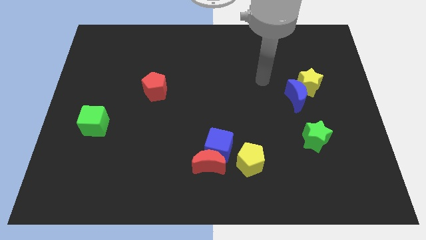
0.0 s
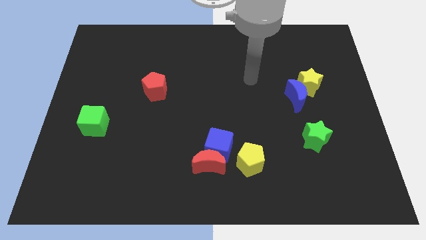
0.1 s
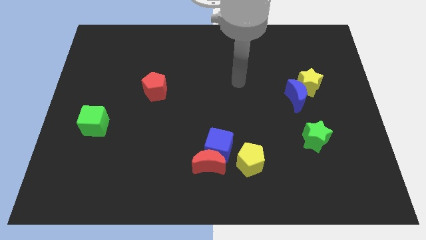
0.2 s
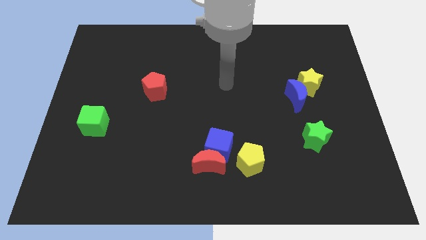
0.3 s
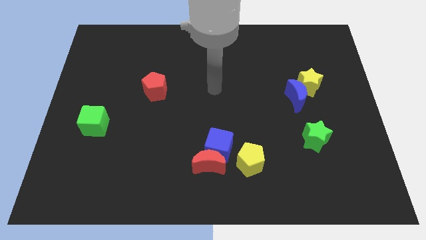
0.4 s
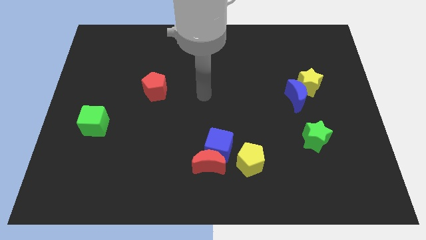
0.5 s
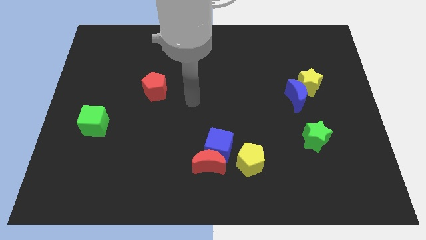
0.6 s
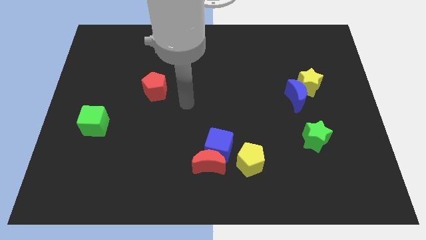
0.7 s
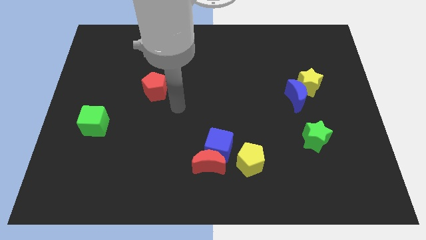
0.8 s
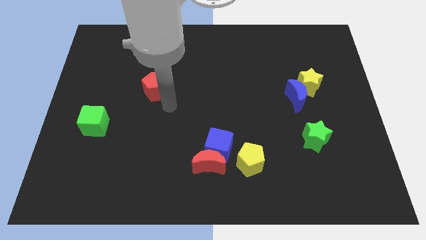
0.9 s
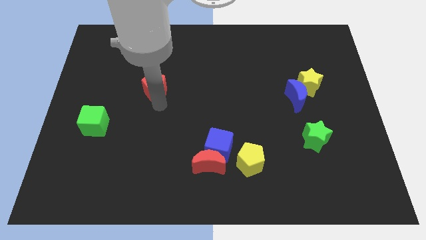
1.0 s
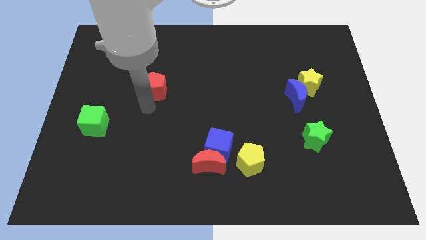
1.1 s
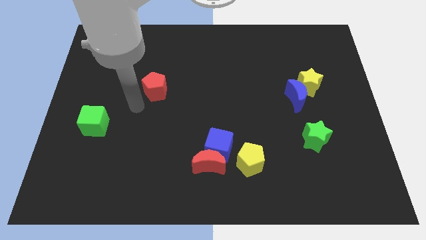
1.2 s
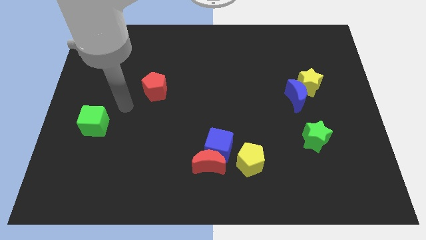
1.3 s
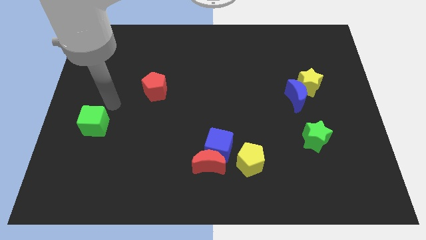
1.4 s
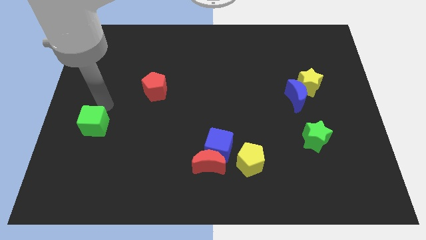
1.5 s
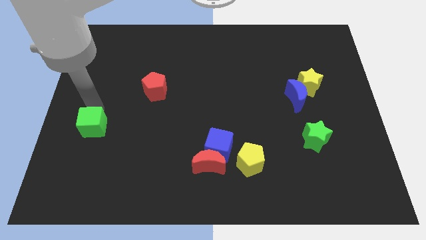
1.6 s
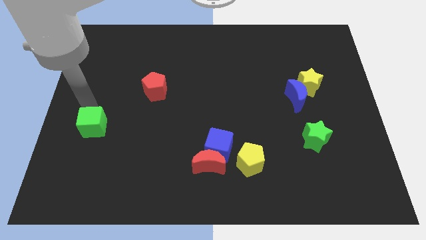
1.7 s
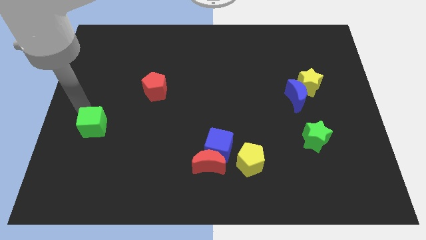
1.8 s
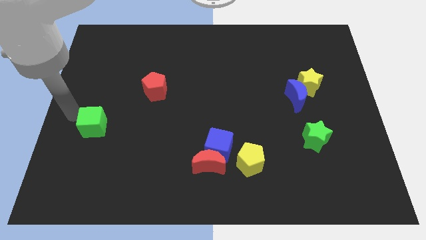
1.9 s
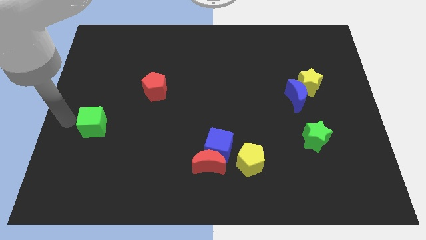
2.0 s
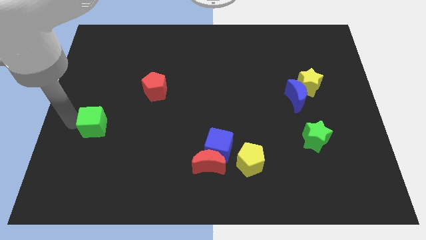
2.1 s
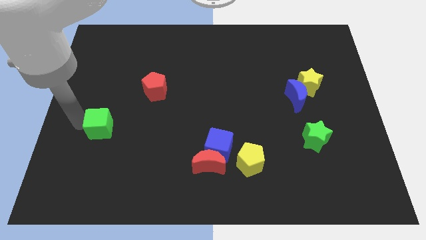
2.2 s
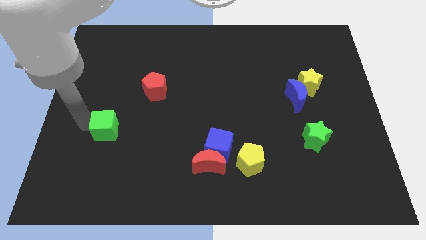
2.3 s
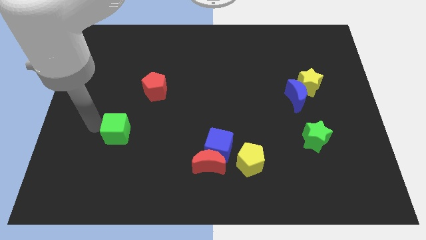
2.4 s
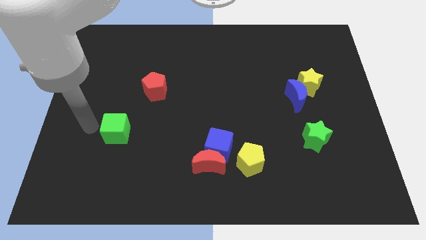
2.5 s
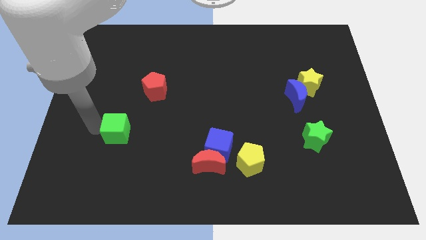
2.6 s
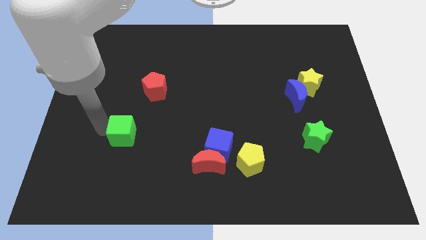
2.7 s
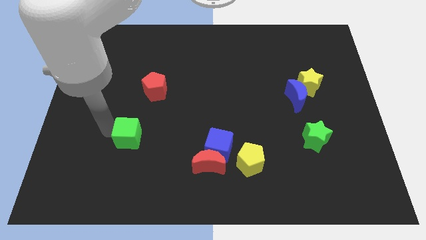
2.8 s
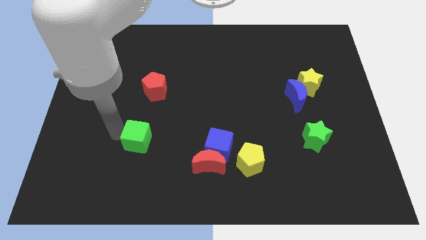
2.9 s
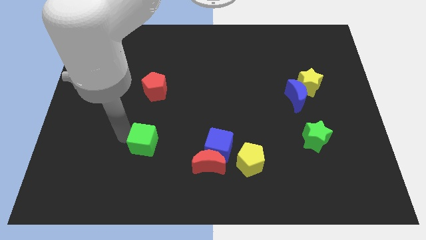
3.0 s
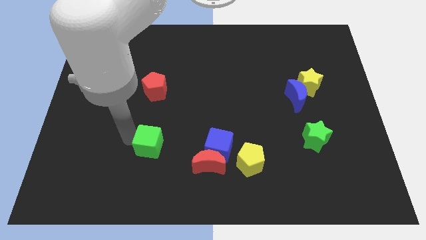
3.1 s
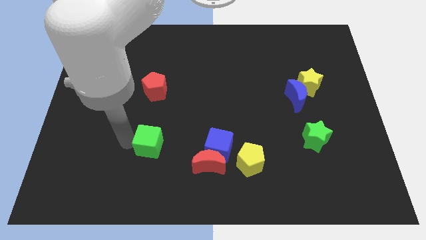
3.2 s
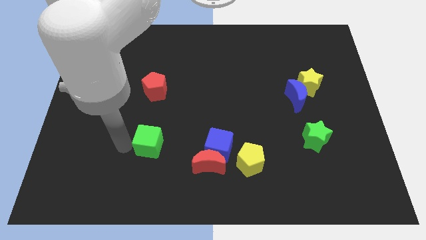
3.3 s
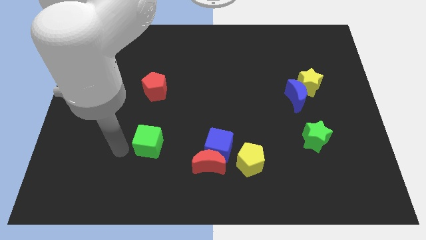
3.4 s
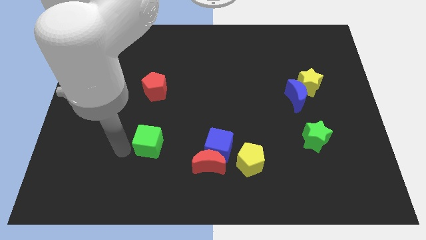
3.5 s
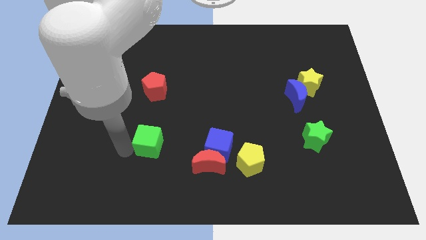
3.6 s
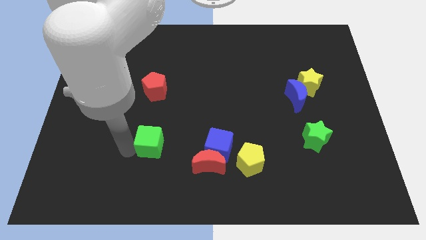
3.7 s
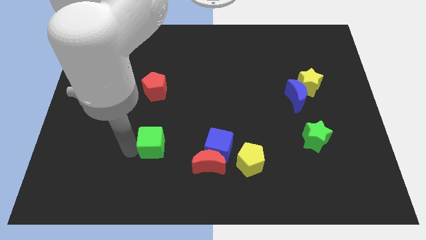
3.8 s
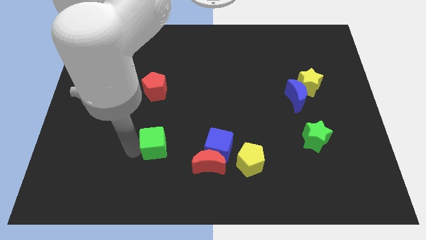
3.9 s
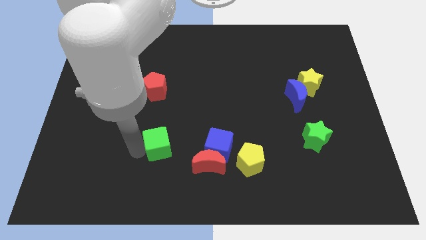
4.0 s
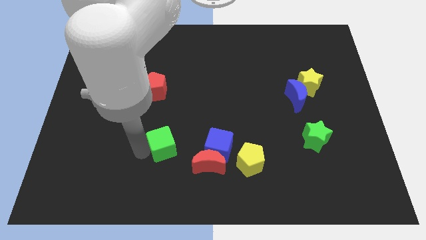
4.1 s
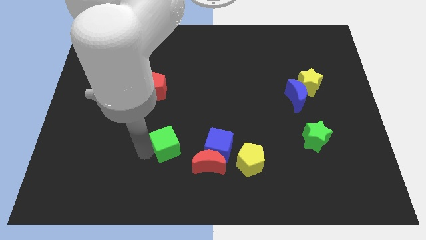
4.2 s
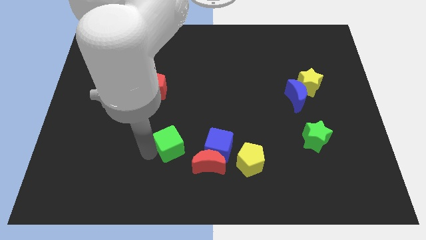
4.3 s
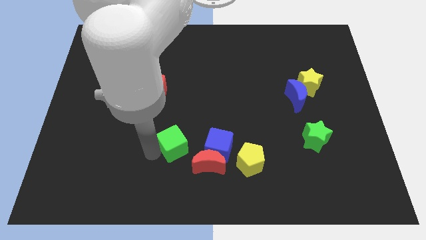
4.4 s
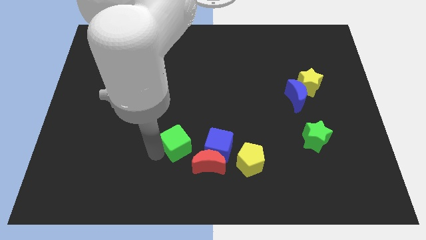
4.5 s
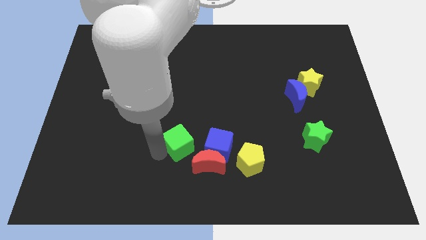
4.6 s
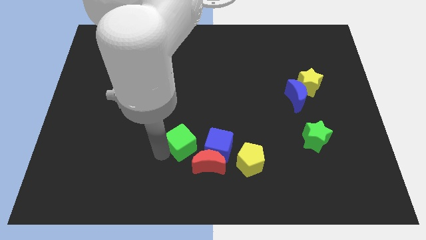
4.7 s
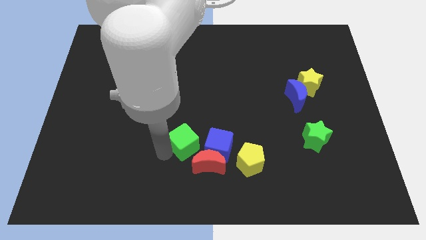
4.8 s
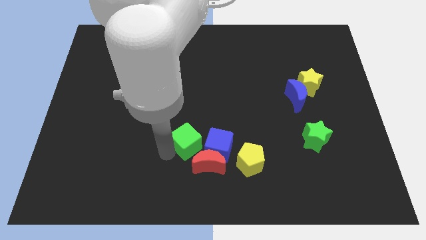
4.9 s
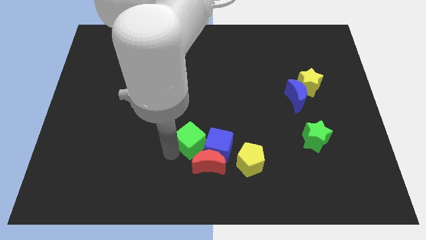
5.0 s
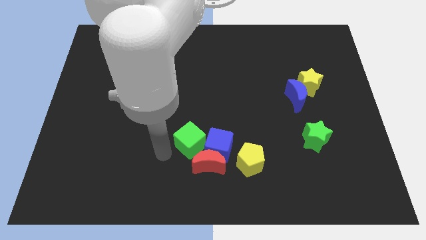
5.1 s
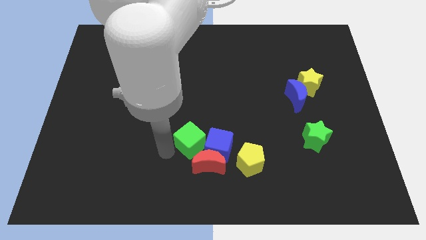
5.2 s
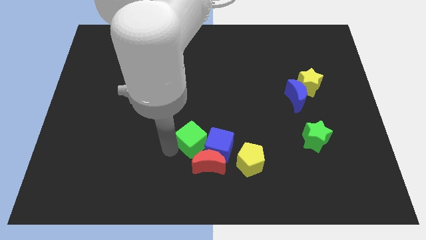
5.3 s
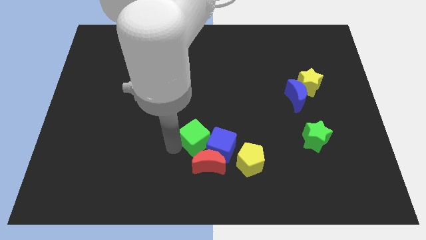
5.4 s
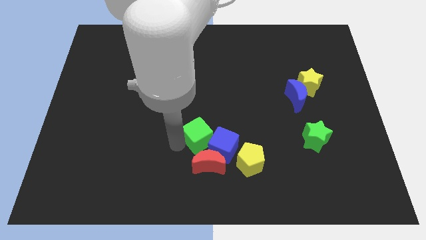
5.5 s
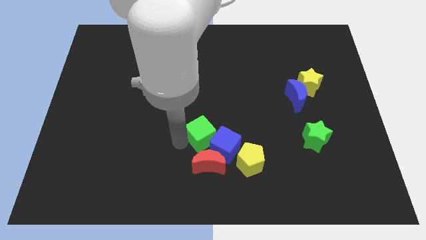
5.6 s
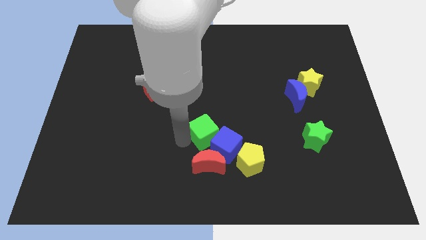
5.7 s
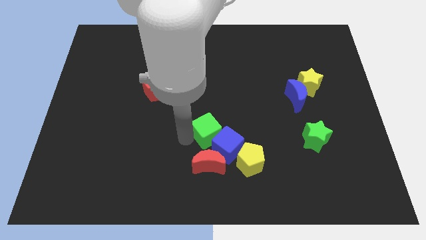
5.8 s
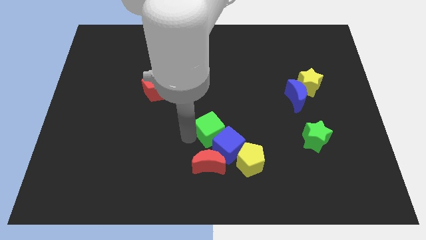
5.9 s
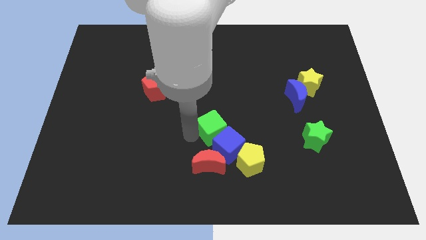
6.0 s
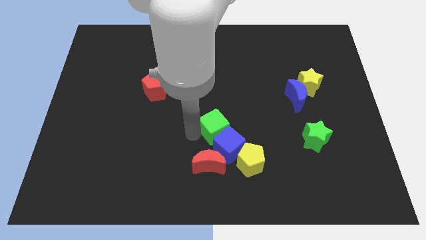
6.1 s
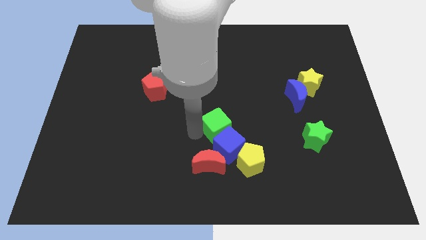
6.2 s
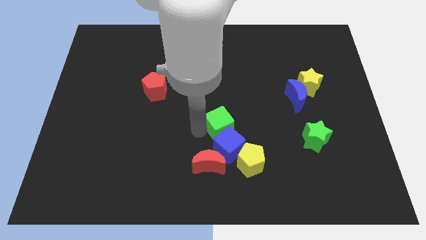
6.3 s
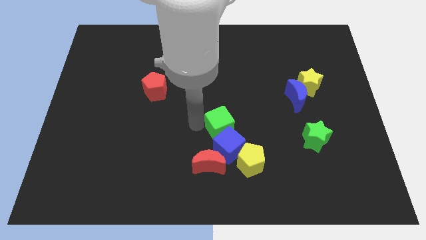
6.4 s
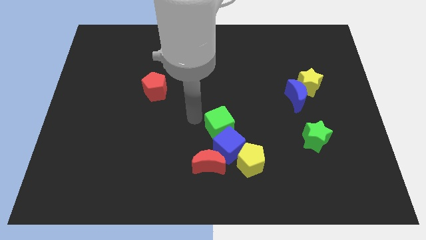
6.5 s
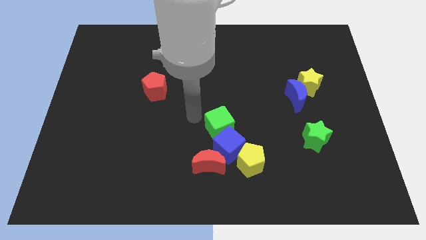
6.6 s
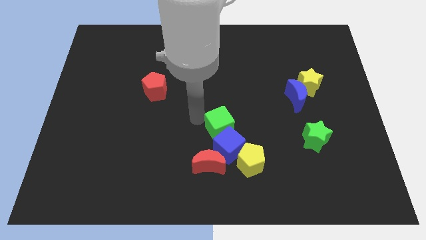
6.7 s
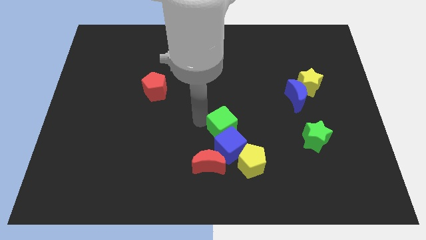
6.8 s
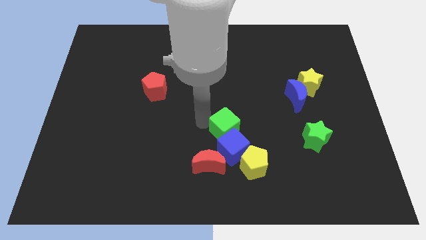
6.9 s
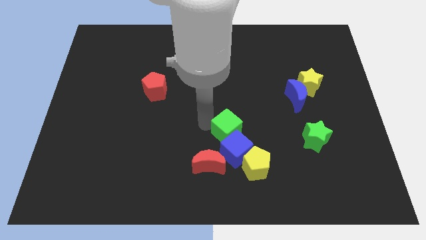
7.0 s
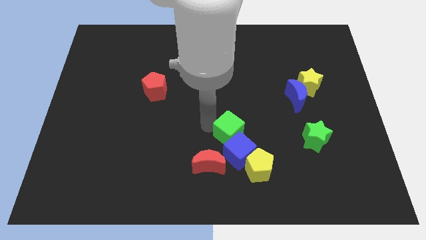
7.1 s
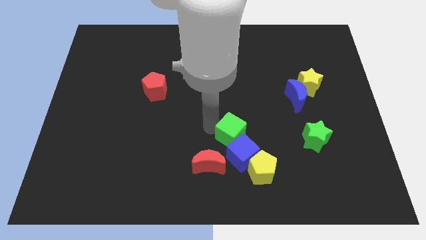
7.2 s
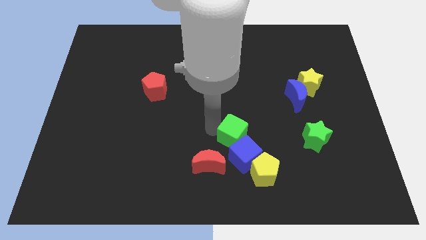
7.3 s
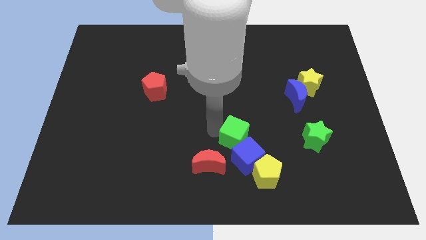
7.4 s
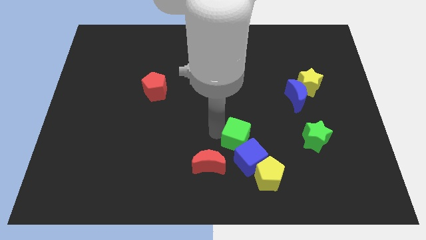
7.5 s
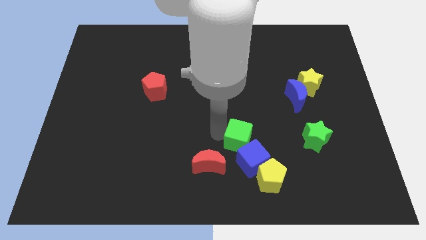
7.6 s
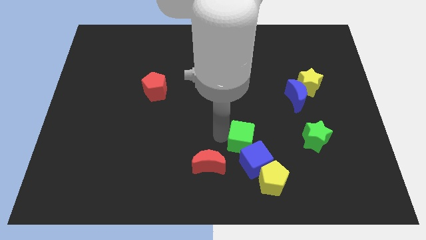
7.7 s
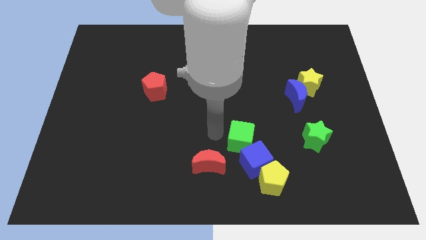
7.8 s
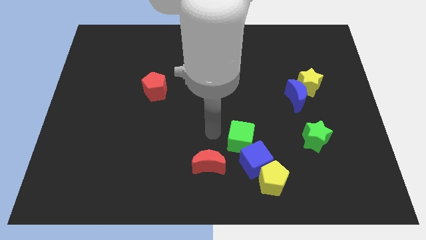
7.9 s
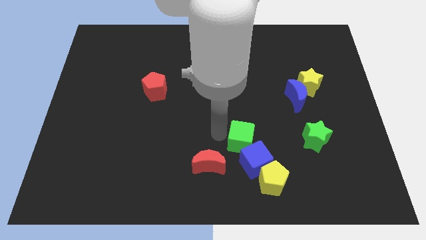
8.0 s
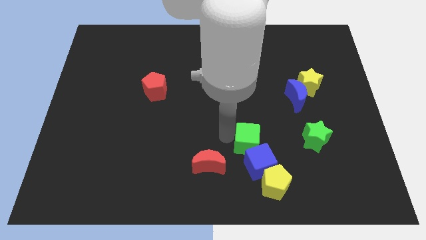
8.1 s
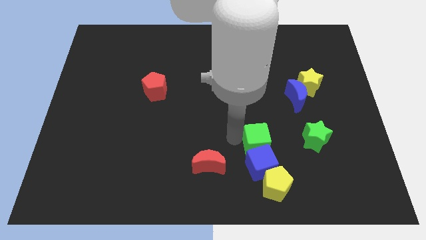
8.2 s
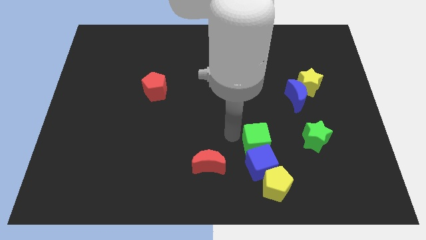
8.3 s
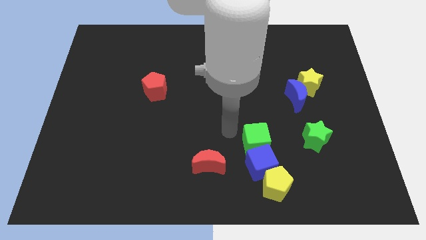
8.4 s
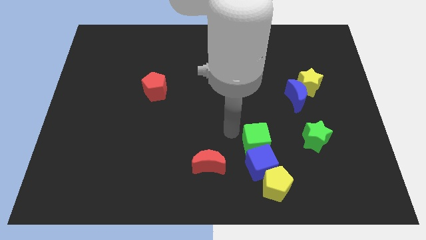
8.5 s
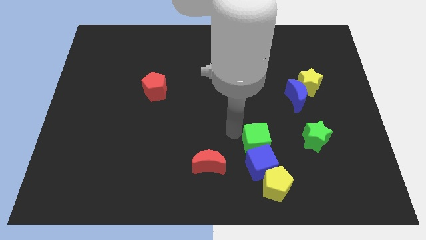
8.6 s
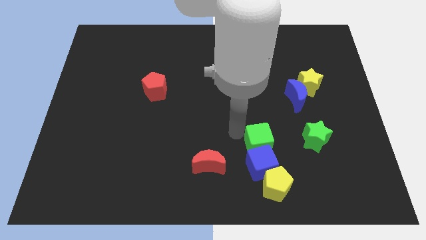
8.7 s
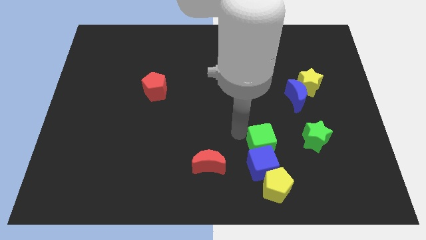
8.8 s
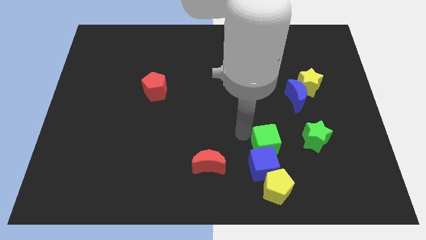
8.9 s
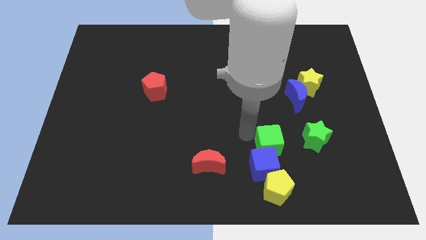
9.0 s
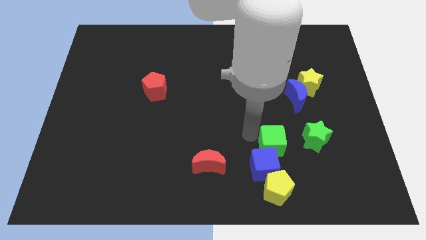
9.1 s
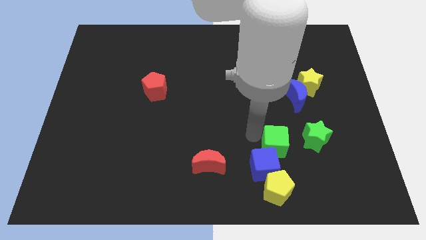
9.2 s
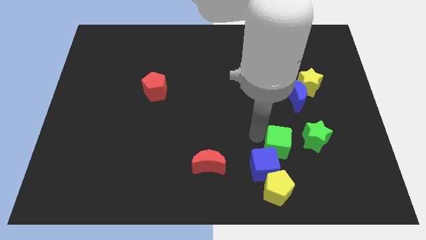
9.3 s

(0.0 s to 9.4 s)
put the green cube to the bottom left side of the green star
